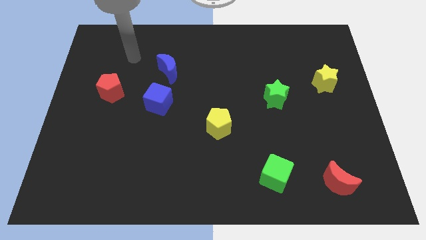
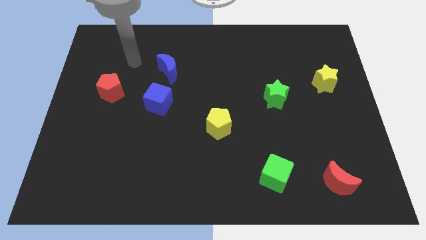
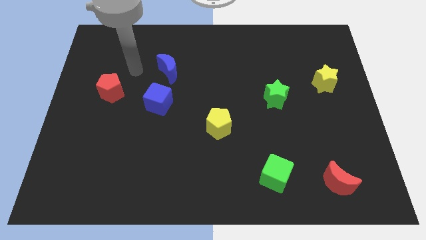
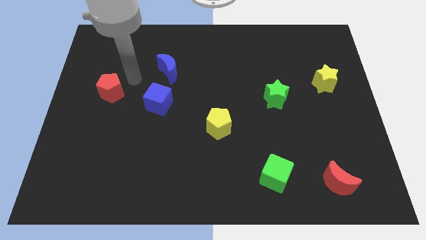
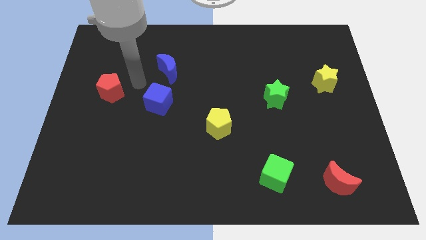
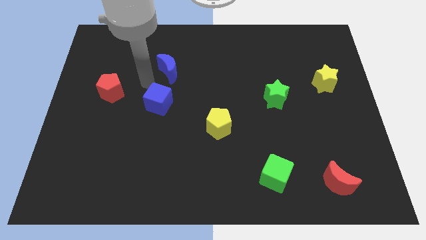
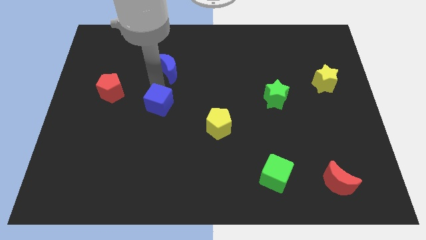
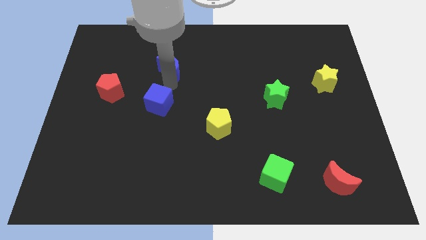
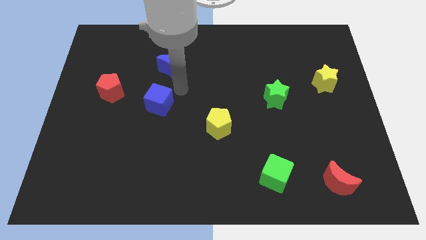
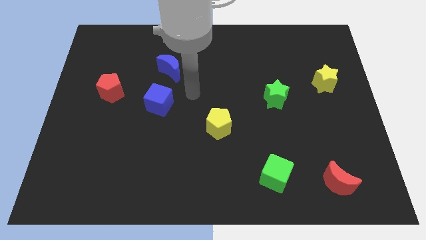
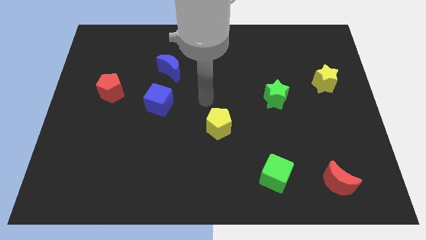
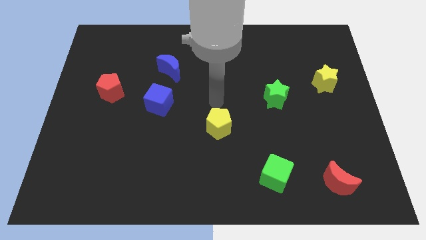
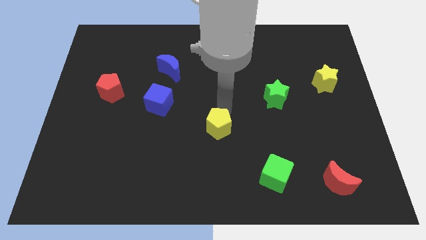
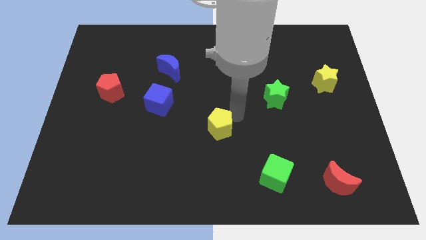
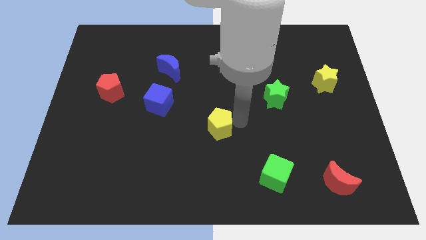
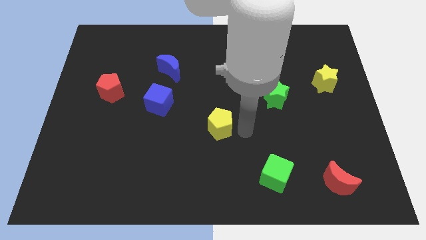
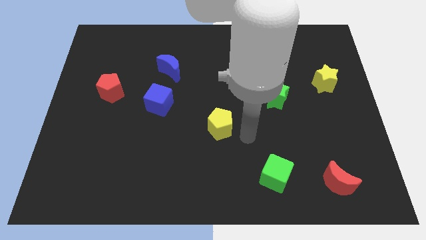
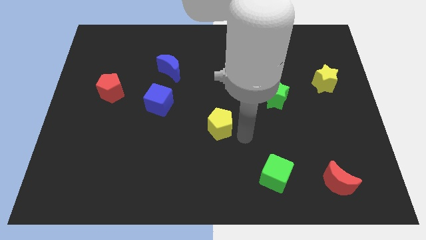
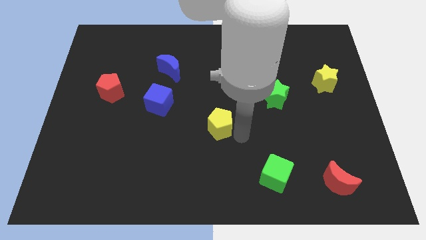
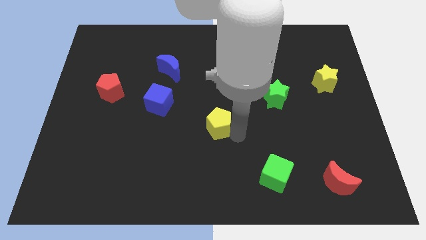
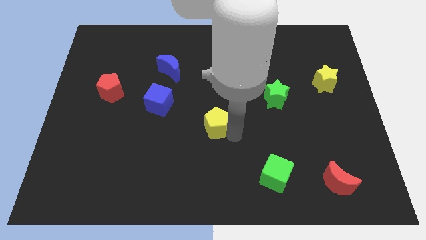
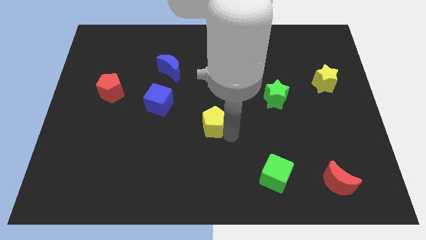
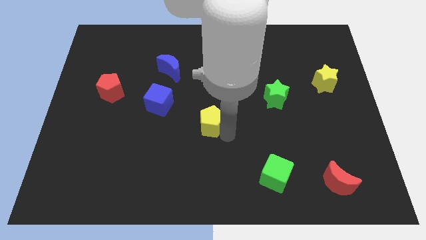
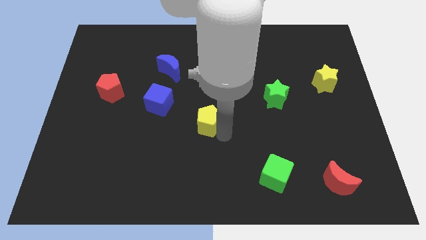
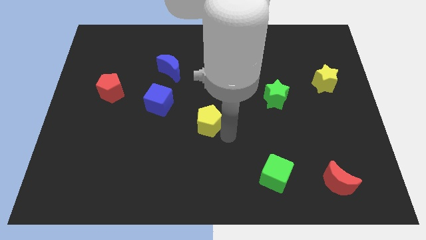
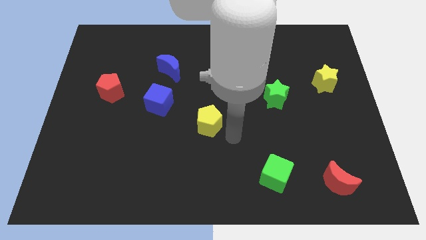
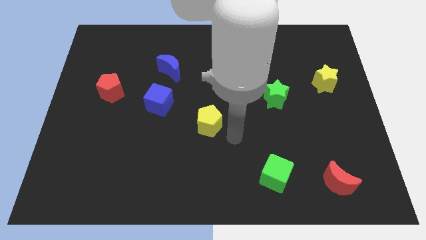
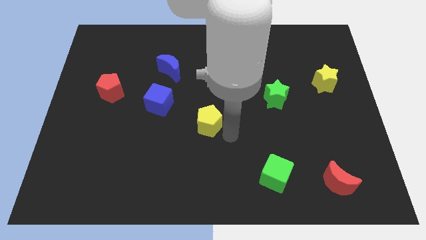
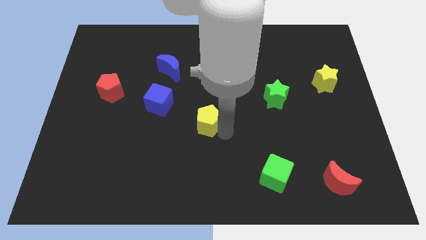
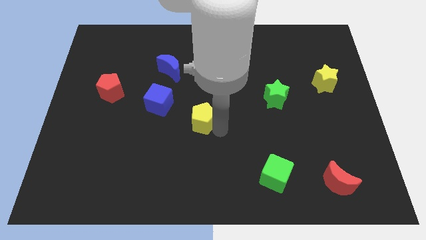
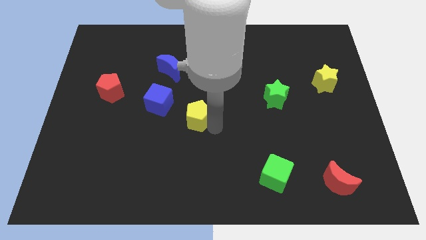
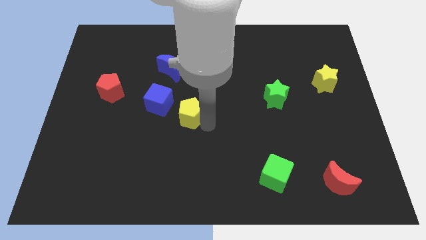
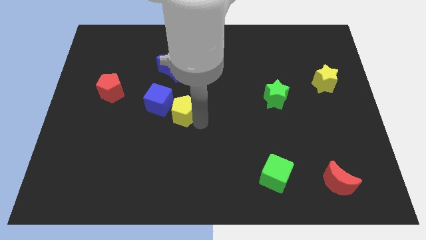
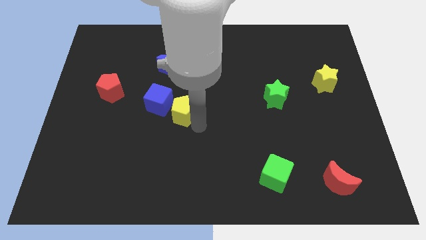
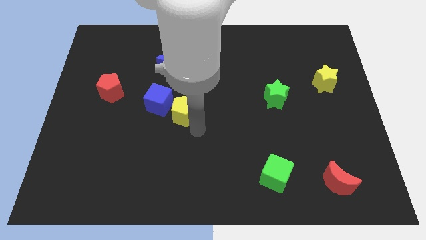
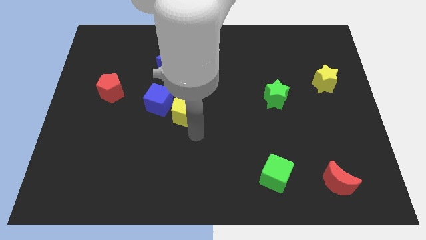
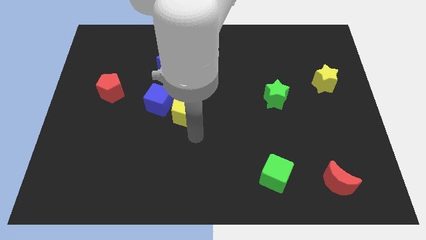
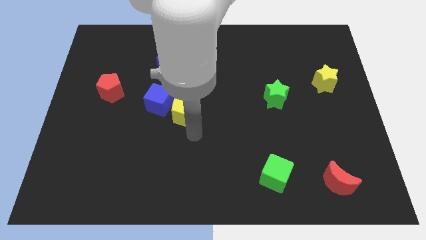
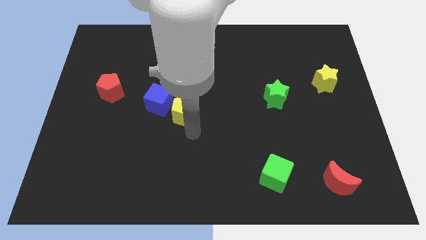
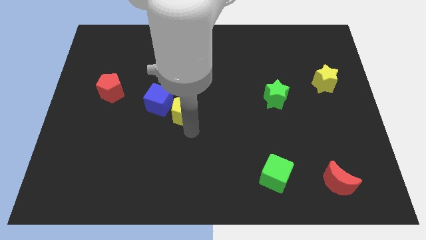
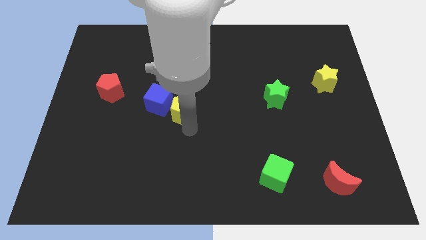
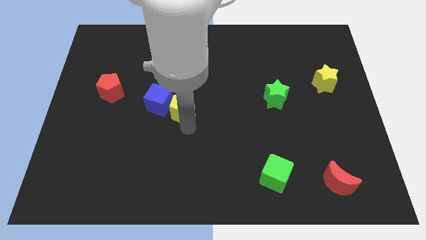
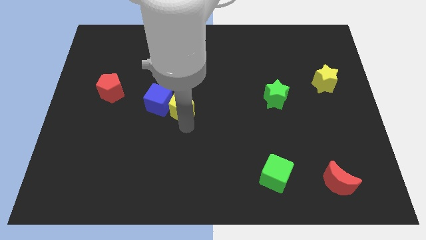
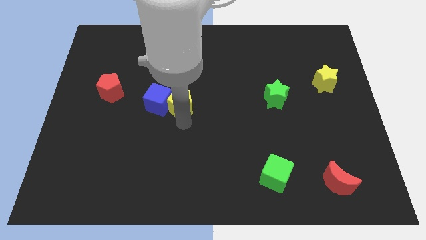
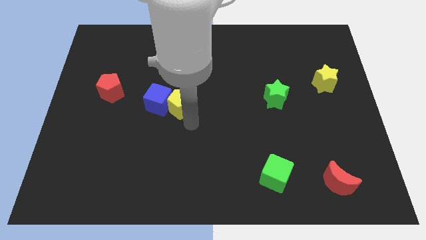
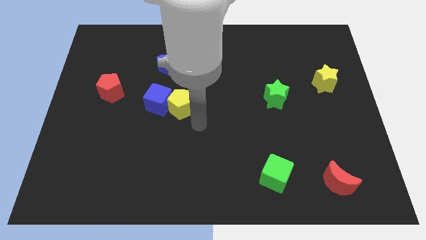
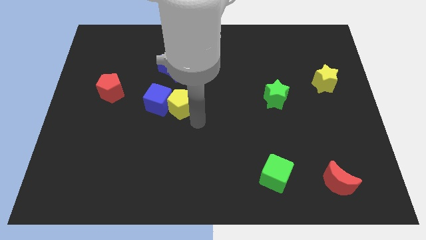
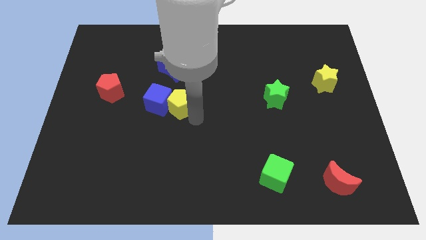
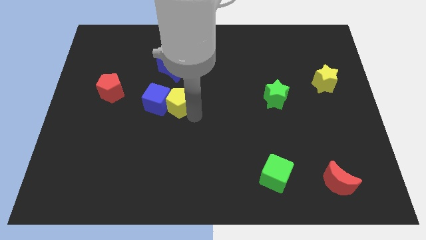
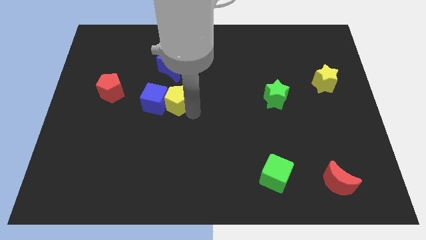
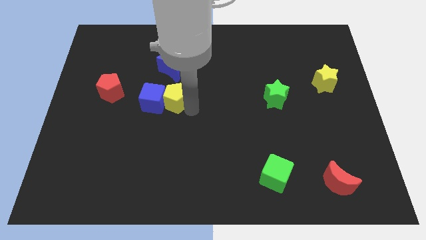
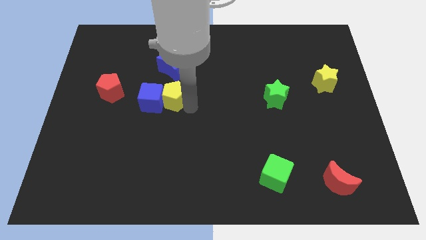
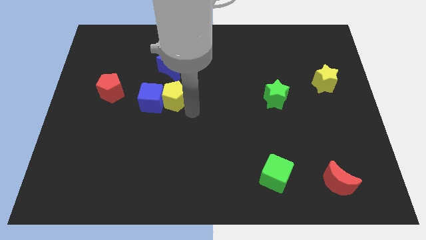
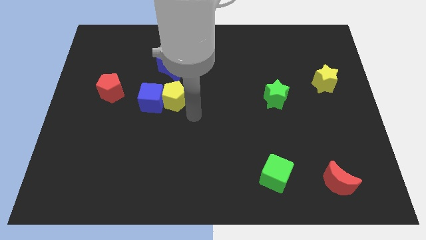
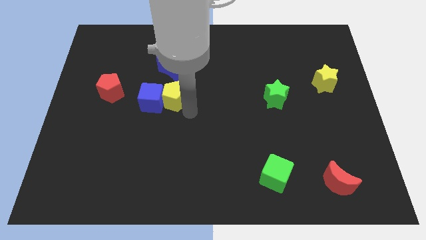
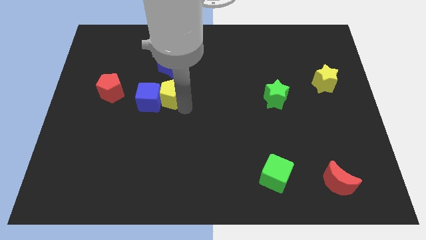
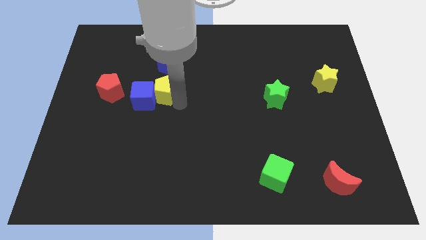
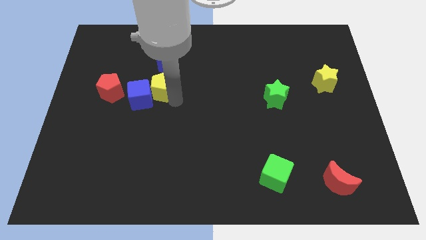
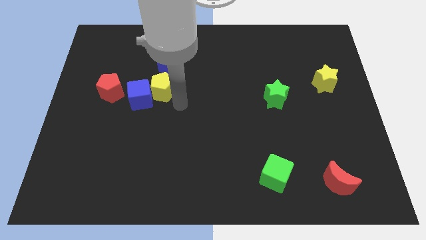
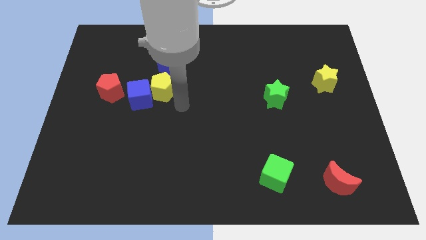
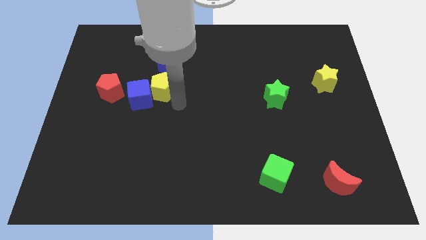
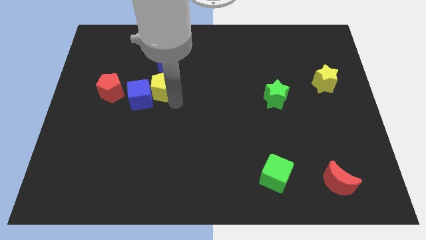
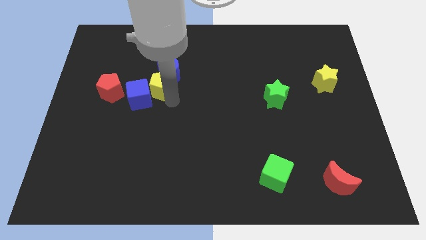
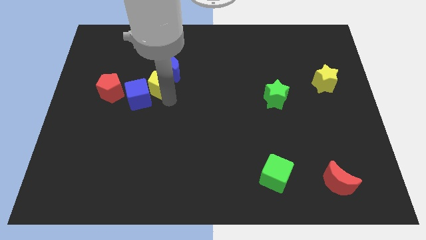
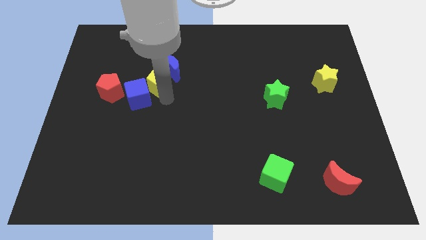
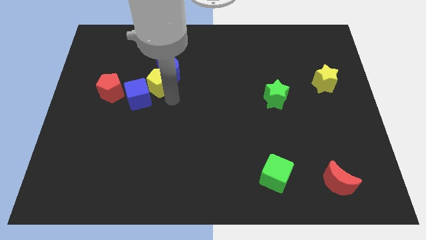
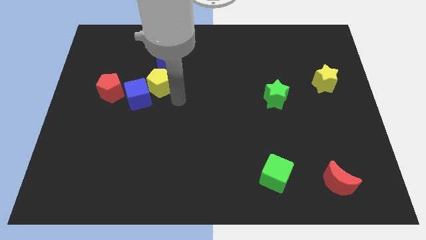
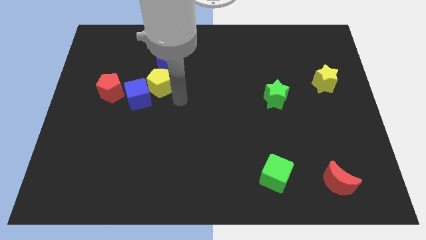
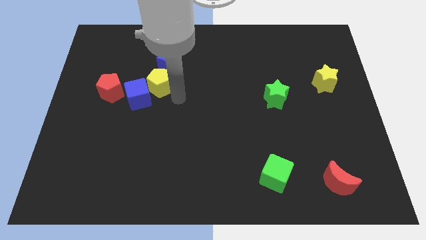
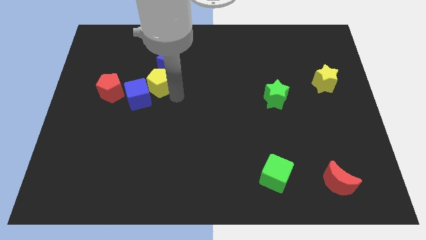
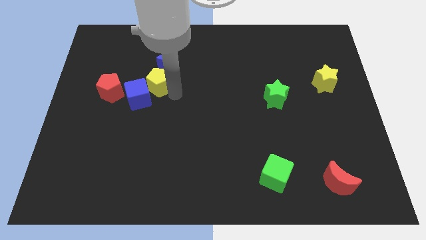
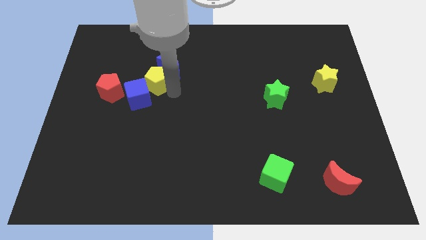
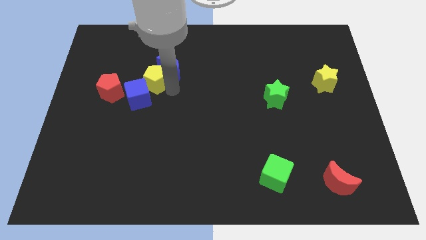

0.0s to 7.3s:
move the yellow pentagon upwards and left diagonally

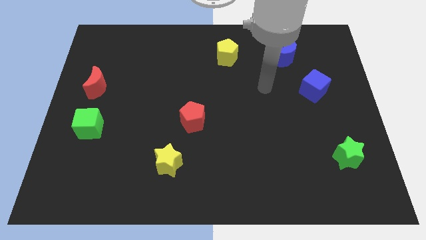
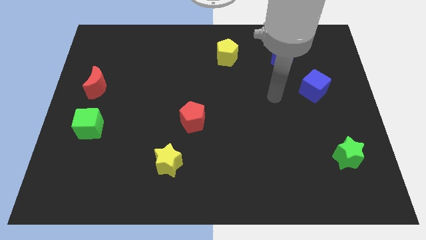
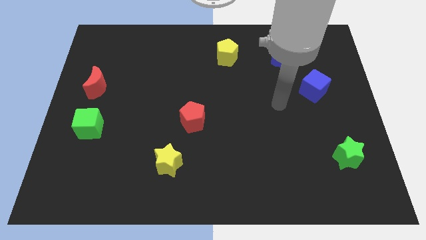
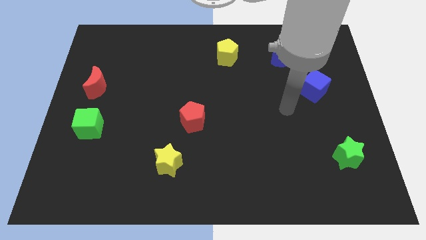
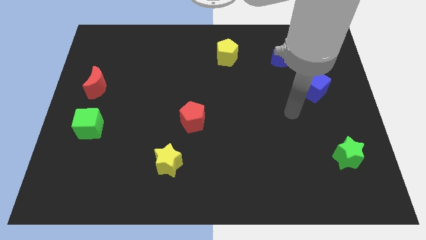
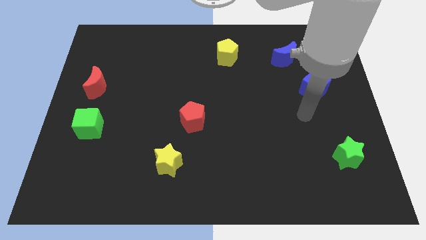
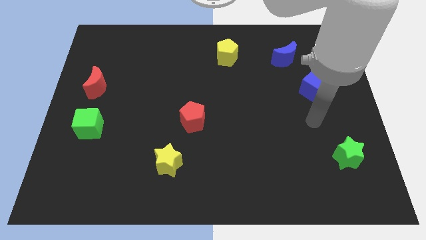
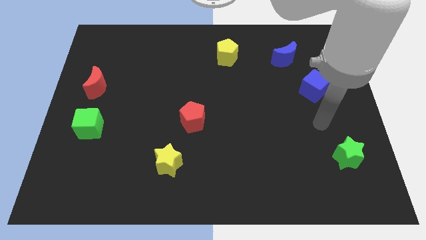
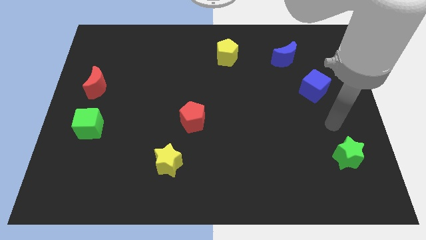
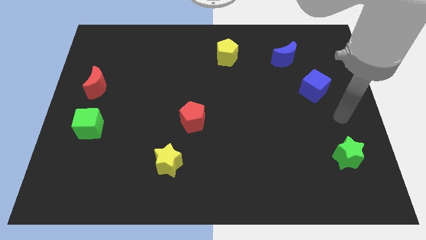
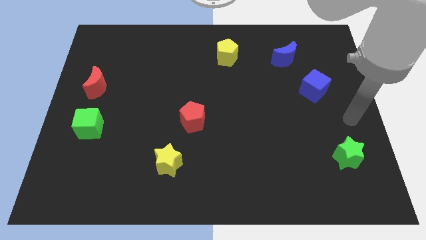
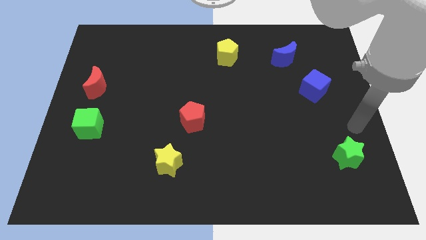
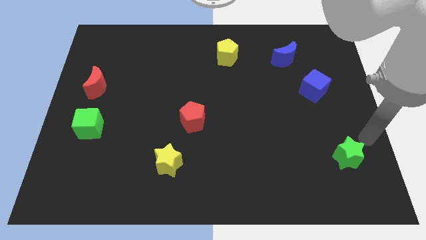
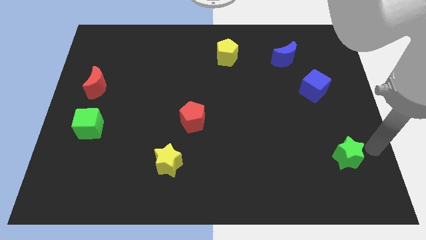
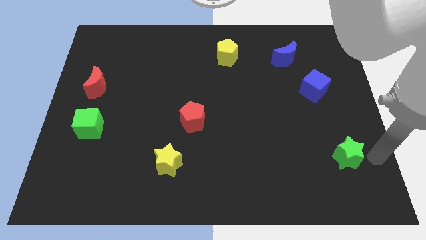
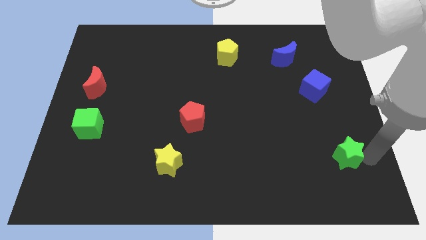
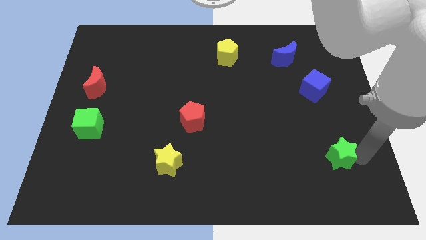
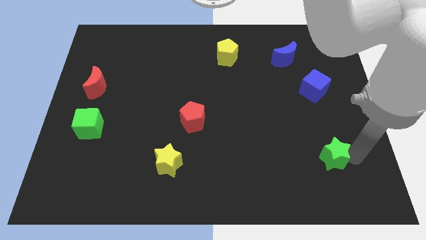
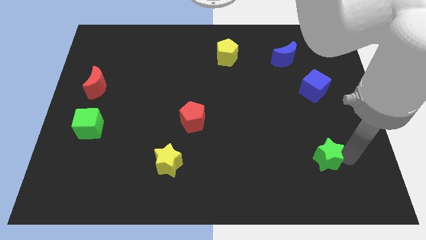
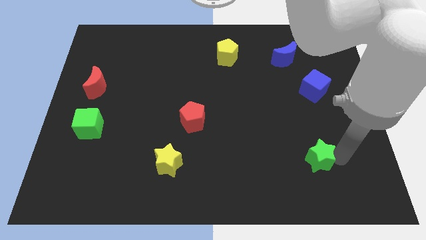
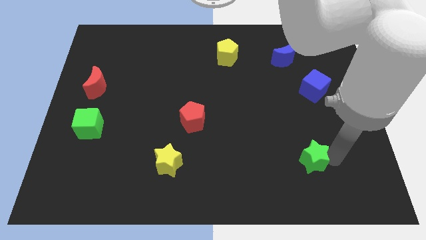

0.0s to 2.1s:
slightly move the green star to the left
